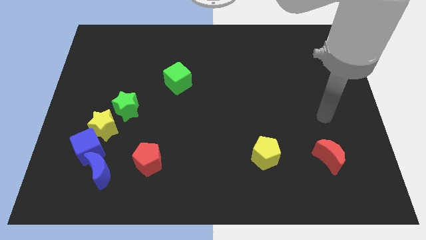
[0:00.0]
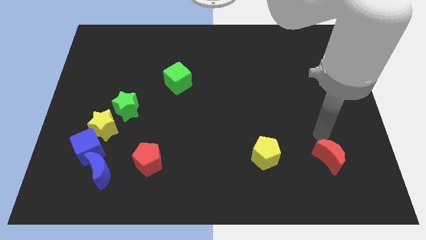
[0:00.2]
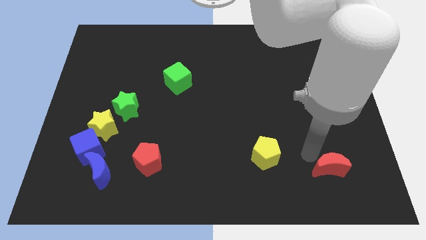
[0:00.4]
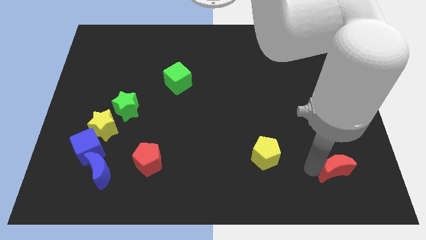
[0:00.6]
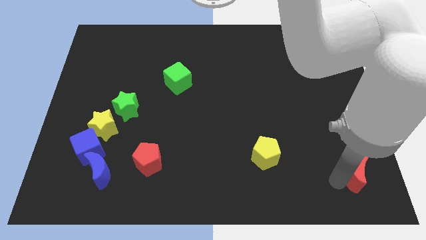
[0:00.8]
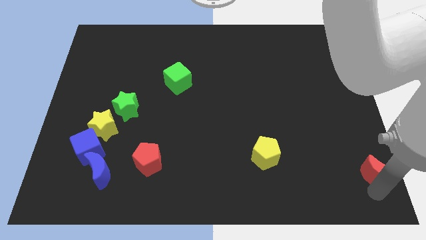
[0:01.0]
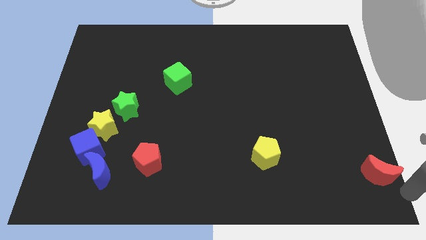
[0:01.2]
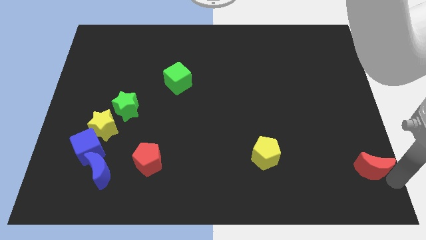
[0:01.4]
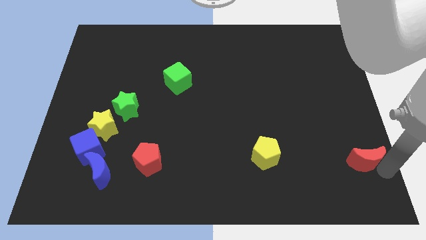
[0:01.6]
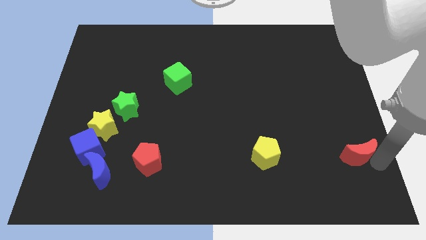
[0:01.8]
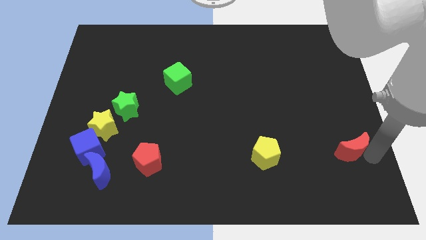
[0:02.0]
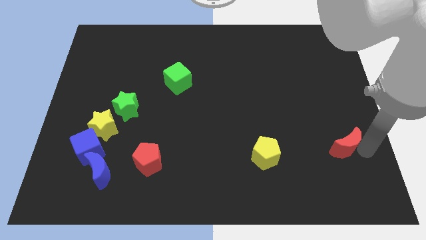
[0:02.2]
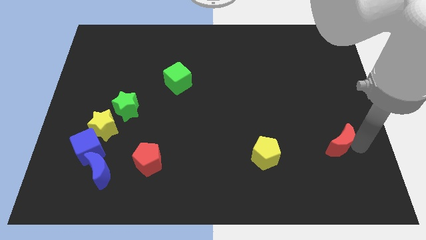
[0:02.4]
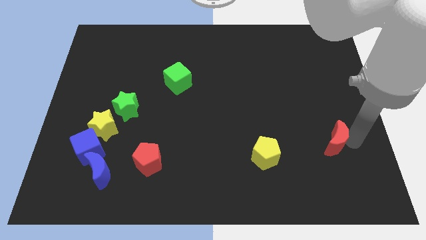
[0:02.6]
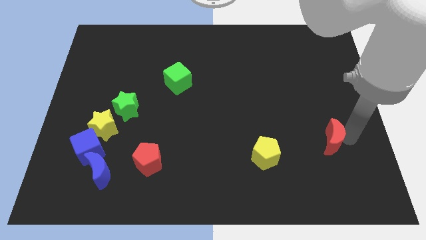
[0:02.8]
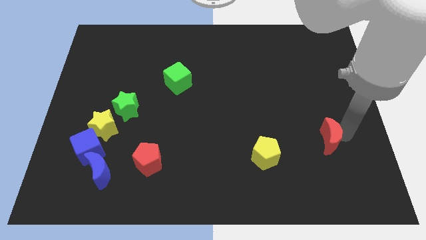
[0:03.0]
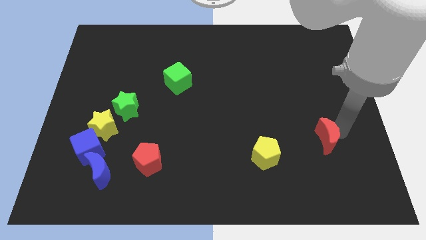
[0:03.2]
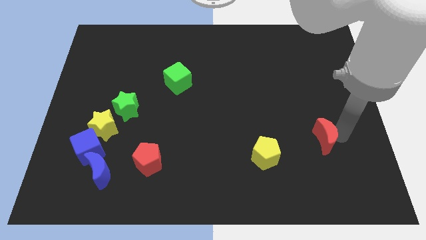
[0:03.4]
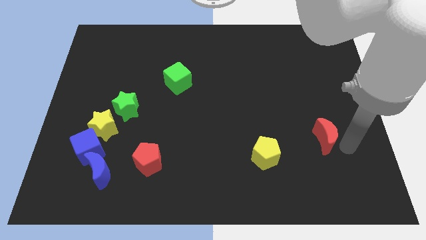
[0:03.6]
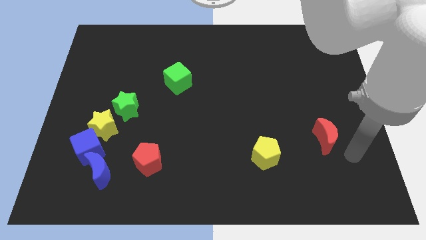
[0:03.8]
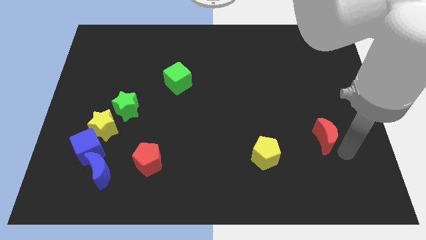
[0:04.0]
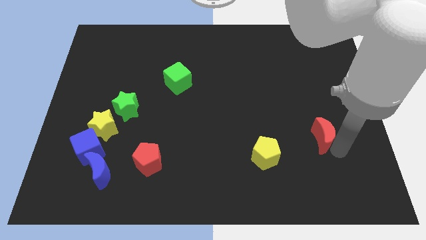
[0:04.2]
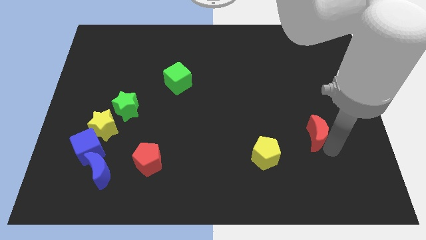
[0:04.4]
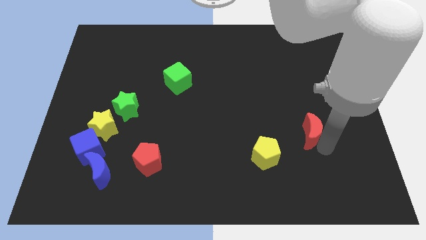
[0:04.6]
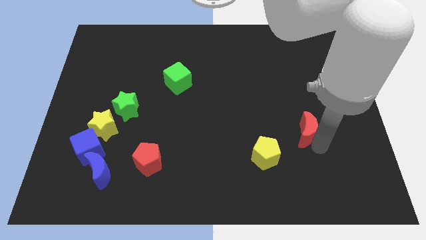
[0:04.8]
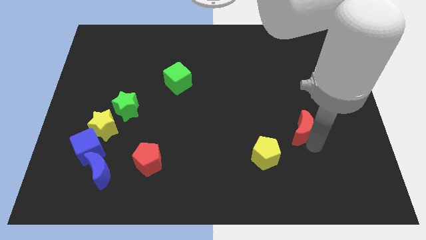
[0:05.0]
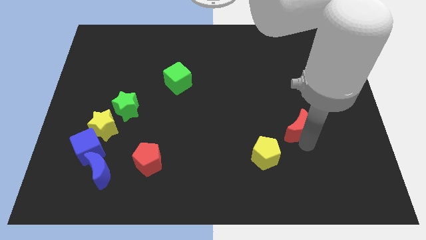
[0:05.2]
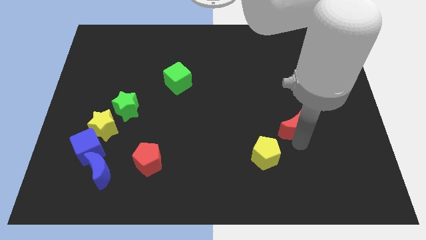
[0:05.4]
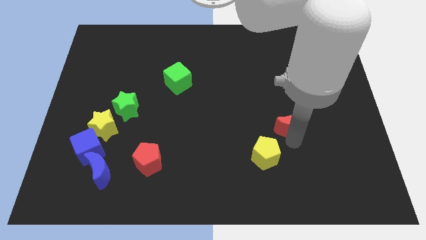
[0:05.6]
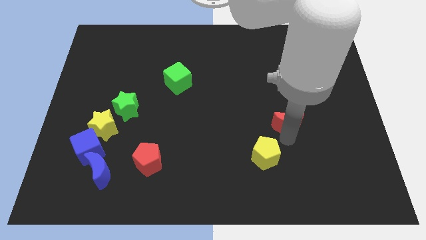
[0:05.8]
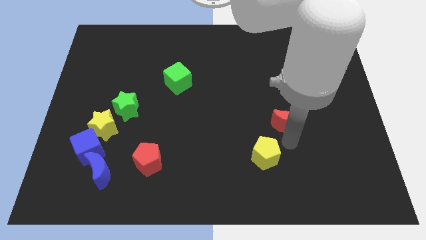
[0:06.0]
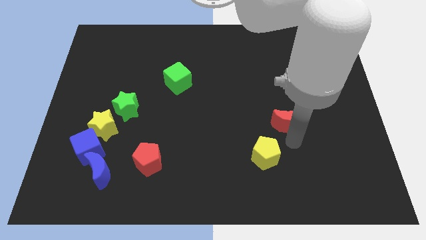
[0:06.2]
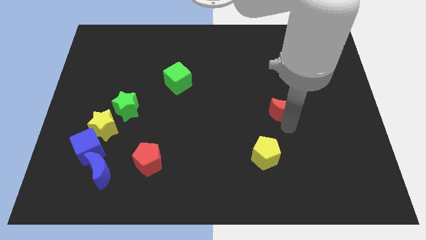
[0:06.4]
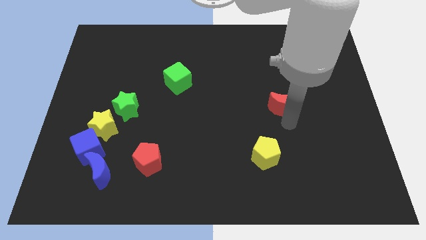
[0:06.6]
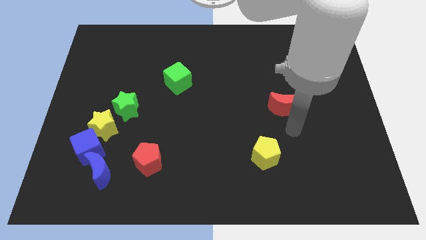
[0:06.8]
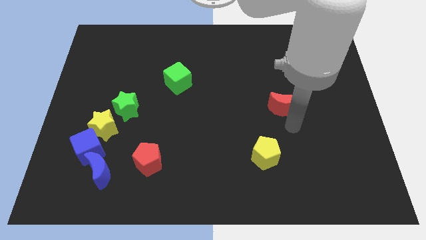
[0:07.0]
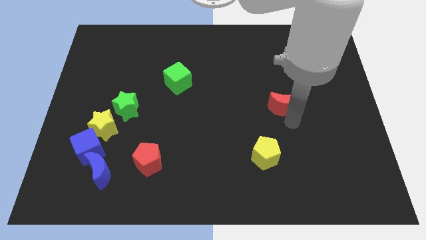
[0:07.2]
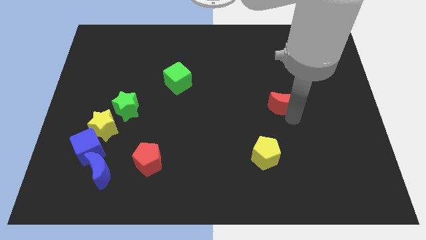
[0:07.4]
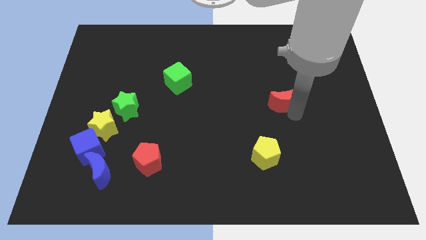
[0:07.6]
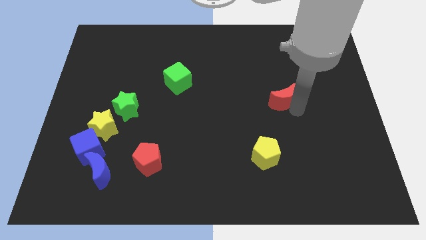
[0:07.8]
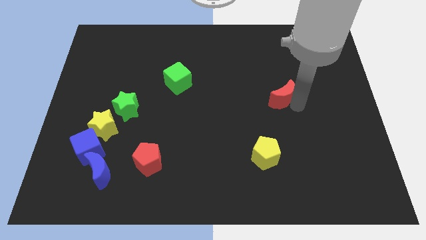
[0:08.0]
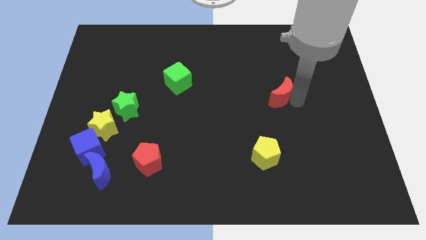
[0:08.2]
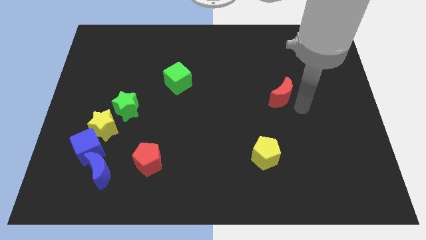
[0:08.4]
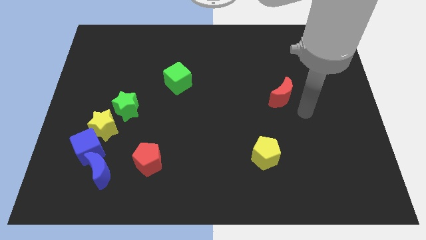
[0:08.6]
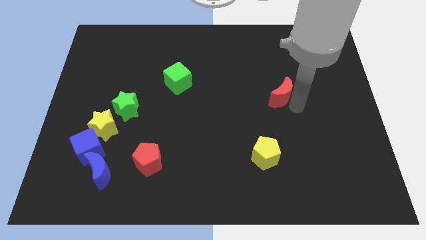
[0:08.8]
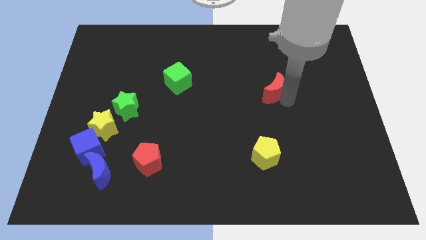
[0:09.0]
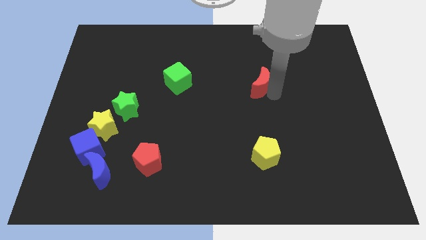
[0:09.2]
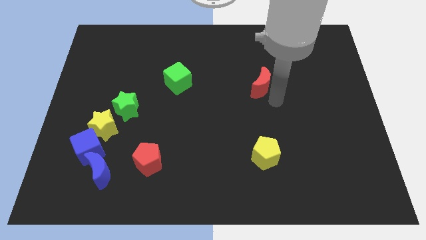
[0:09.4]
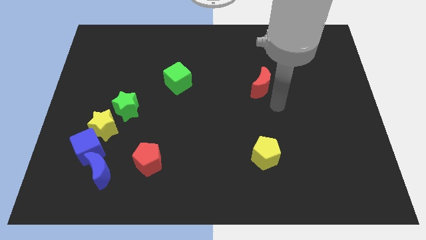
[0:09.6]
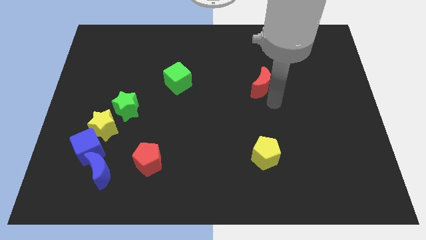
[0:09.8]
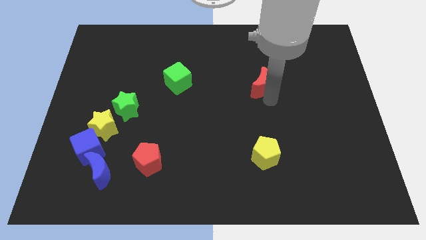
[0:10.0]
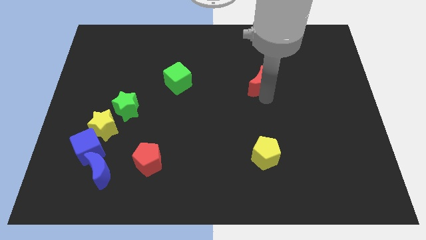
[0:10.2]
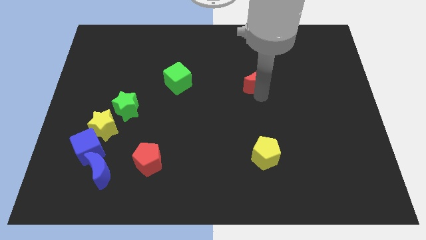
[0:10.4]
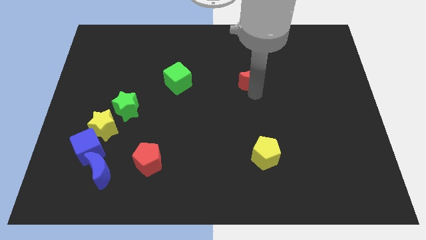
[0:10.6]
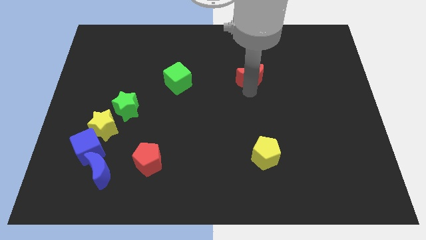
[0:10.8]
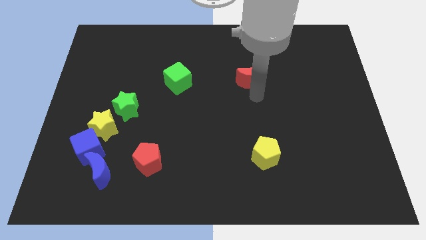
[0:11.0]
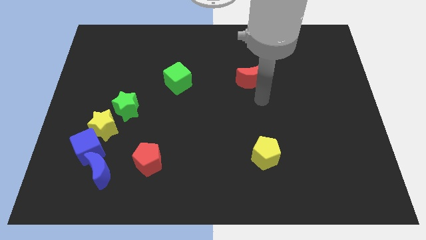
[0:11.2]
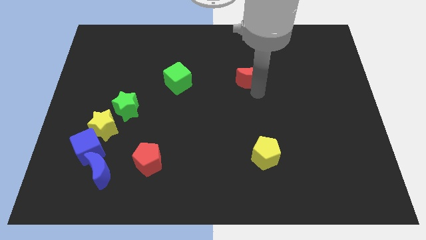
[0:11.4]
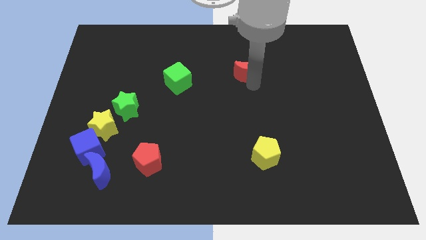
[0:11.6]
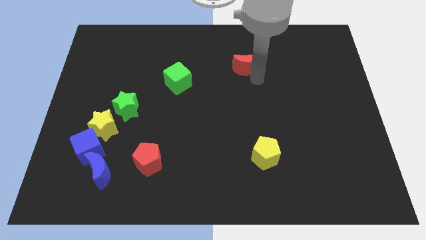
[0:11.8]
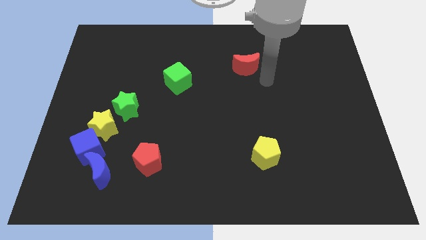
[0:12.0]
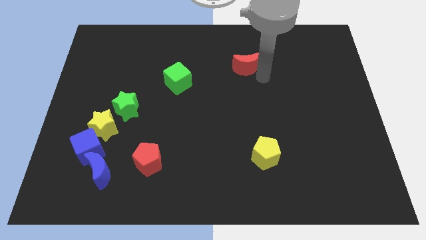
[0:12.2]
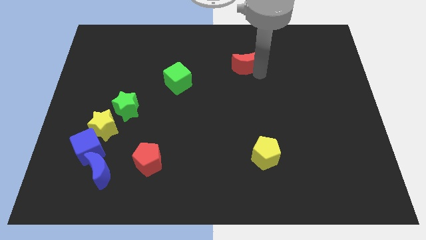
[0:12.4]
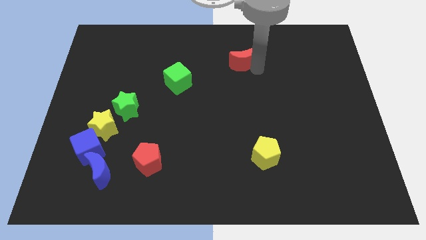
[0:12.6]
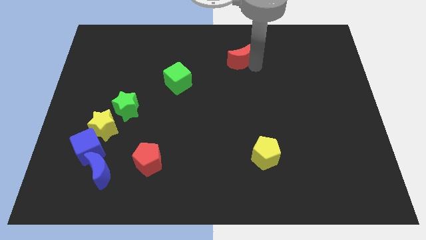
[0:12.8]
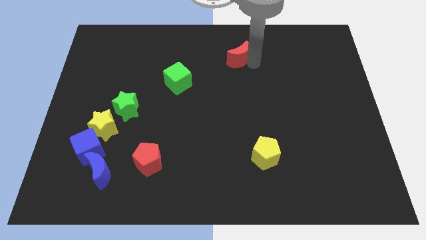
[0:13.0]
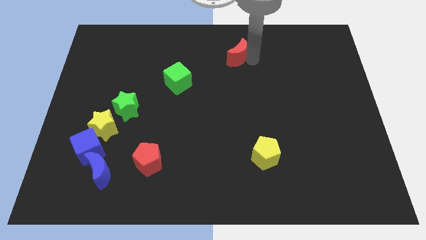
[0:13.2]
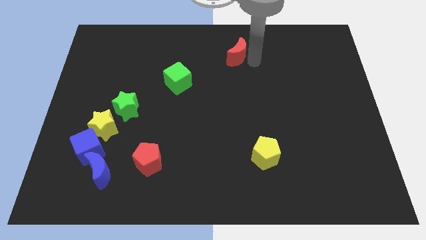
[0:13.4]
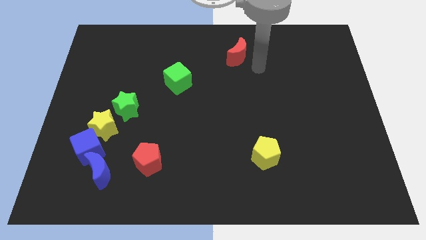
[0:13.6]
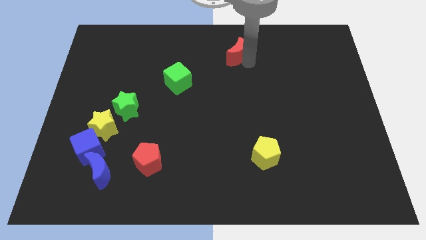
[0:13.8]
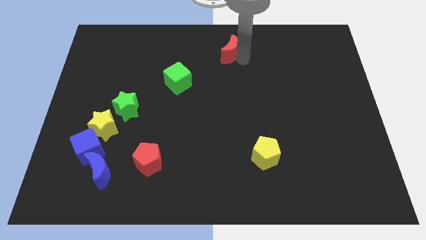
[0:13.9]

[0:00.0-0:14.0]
push the red moon to the top
